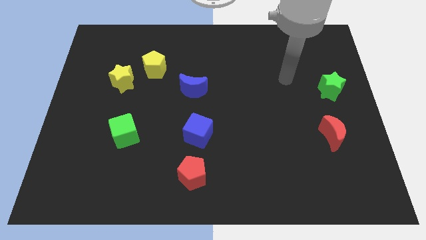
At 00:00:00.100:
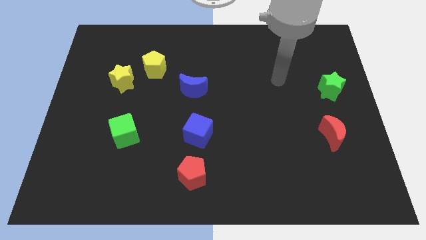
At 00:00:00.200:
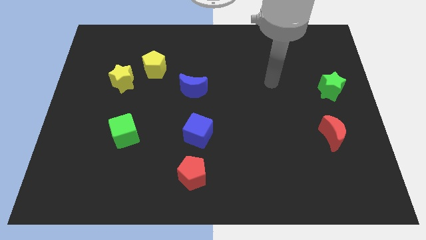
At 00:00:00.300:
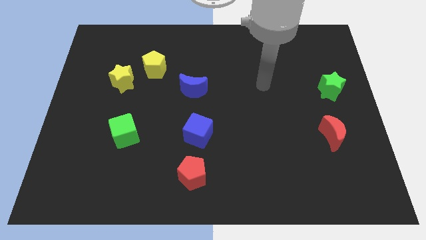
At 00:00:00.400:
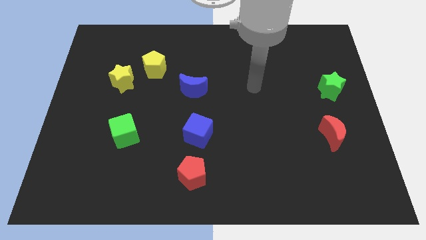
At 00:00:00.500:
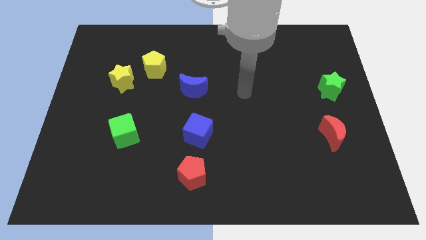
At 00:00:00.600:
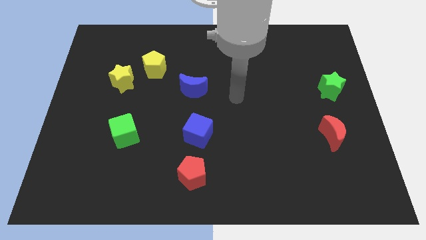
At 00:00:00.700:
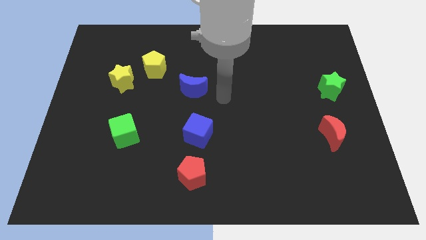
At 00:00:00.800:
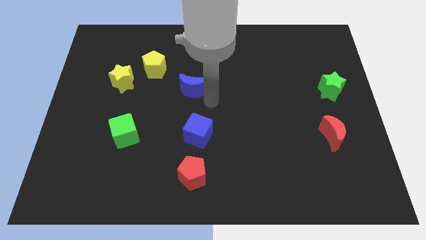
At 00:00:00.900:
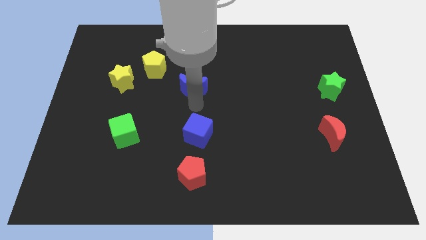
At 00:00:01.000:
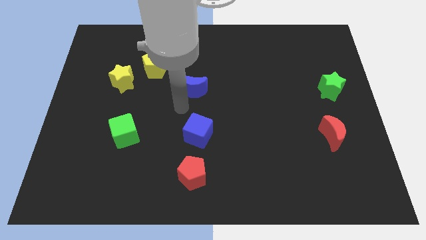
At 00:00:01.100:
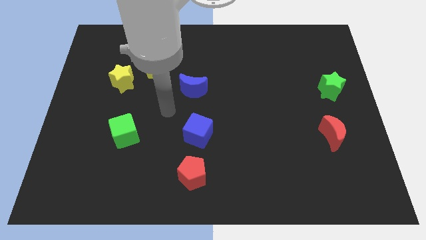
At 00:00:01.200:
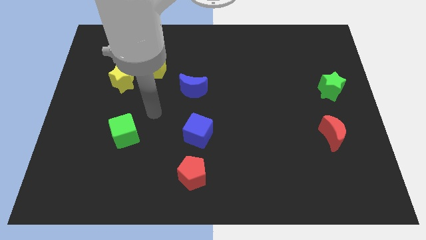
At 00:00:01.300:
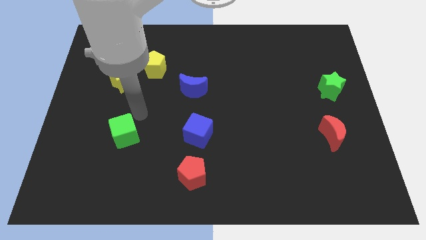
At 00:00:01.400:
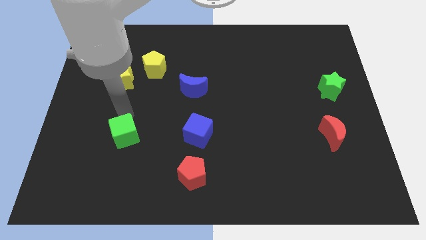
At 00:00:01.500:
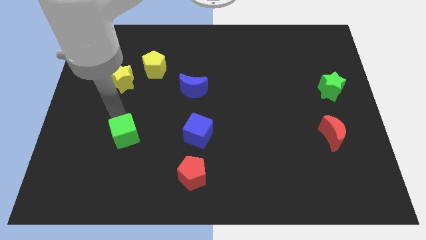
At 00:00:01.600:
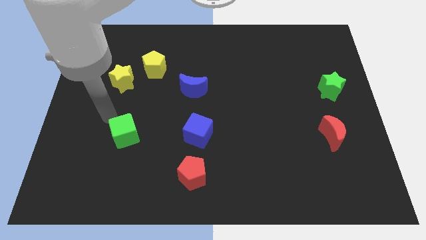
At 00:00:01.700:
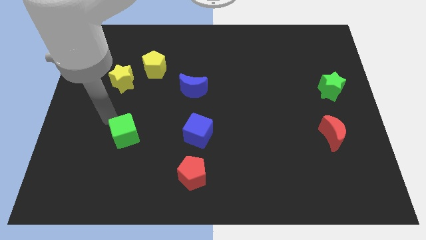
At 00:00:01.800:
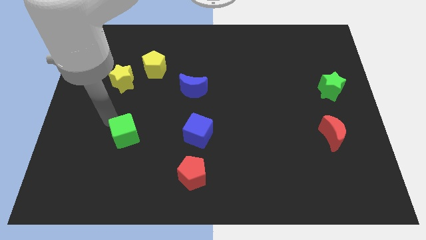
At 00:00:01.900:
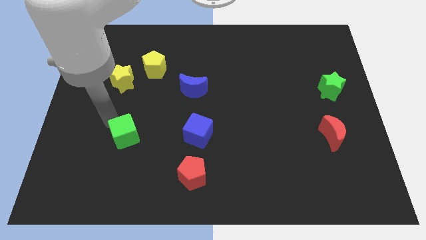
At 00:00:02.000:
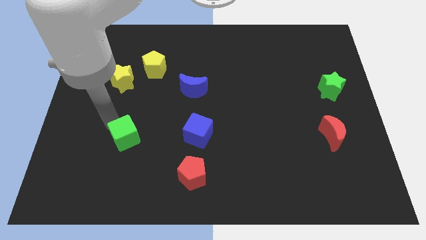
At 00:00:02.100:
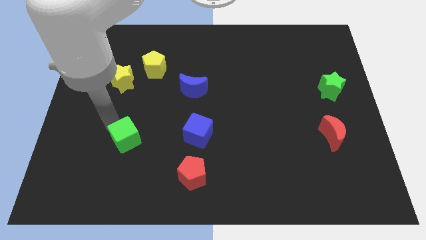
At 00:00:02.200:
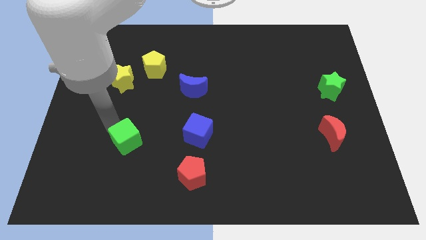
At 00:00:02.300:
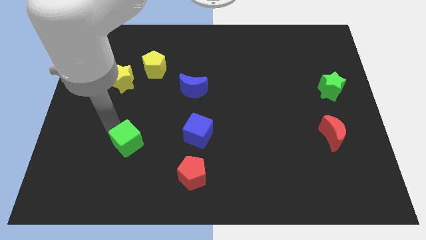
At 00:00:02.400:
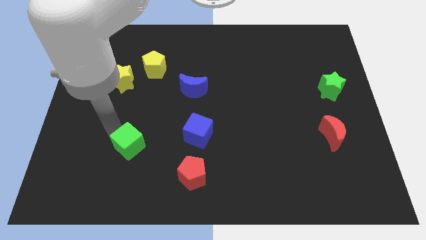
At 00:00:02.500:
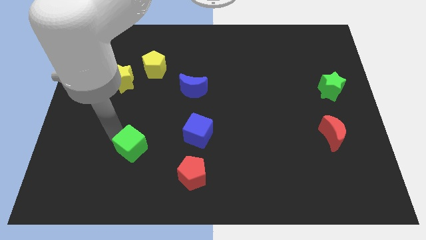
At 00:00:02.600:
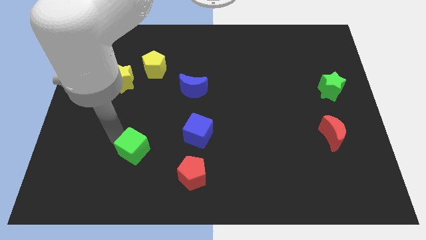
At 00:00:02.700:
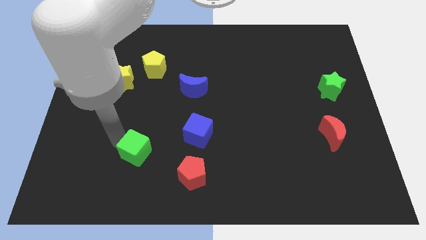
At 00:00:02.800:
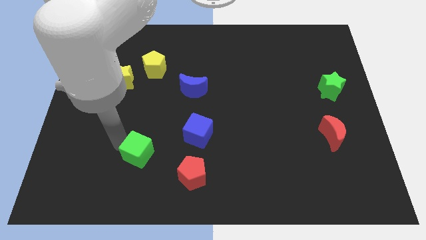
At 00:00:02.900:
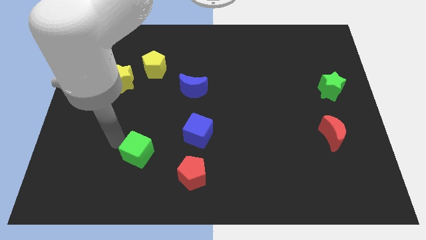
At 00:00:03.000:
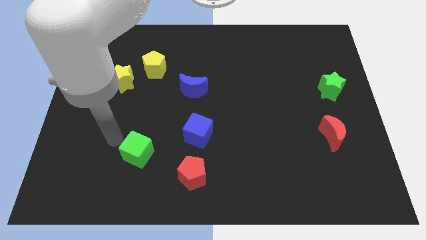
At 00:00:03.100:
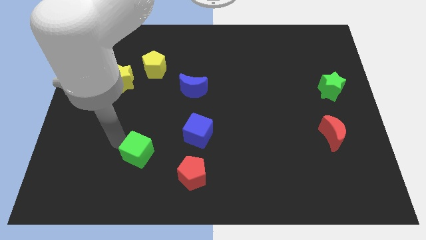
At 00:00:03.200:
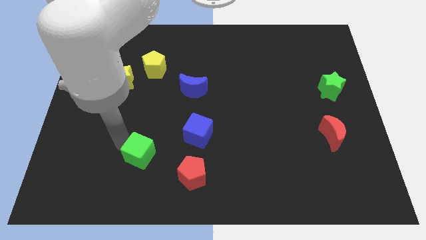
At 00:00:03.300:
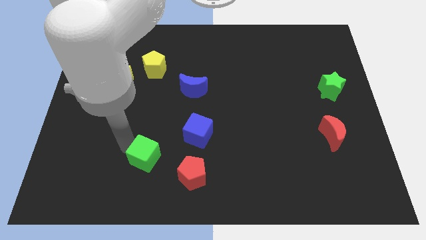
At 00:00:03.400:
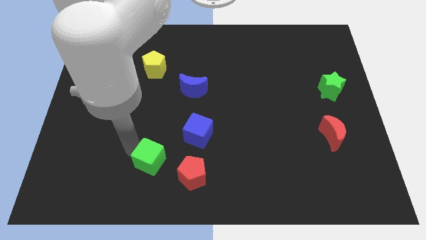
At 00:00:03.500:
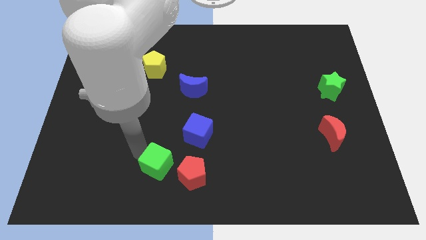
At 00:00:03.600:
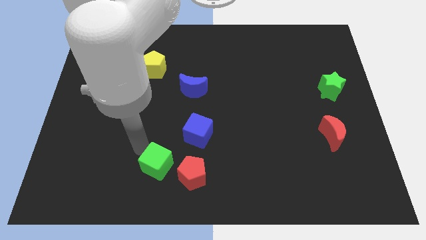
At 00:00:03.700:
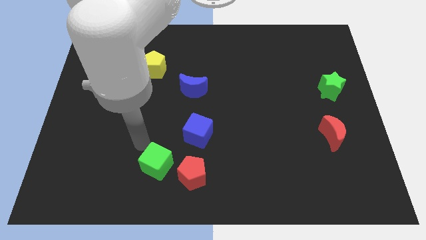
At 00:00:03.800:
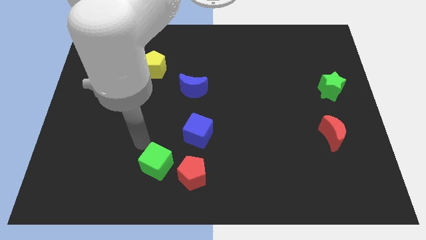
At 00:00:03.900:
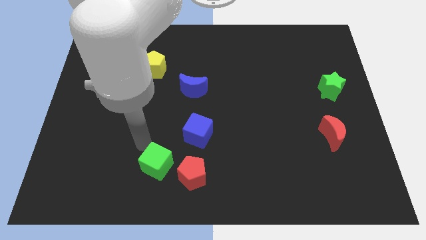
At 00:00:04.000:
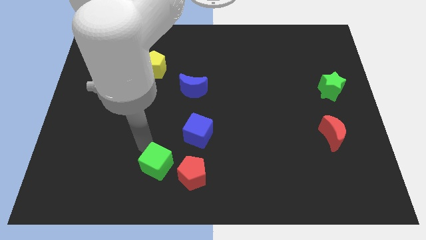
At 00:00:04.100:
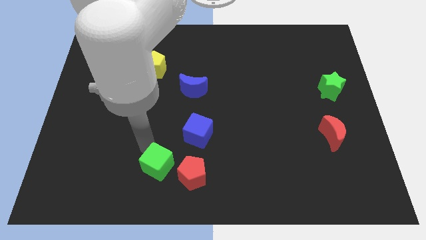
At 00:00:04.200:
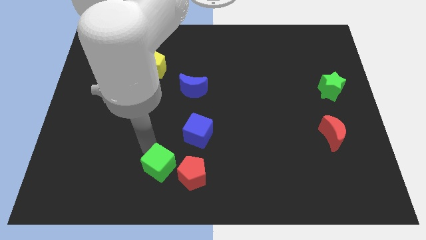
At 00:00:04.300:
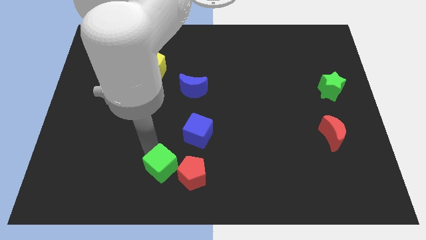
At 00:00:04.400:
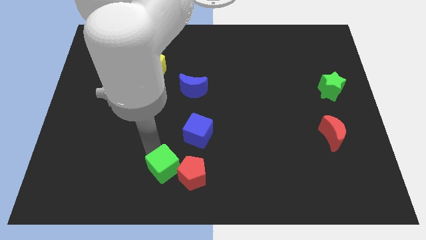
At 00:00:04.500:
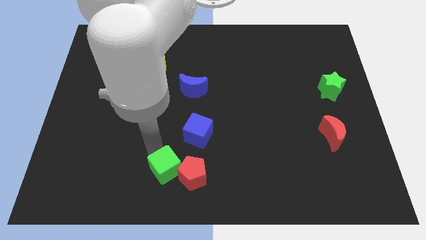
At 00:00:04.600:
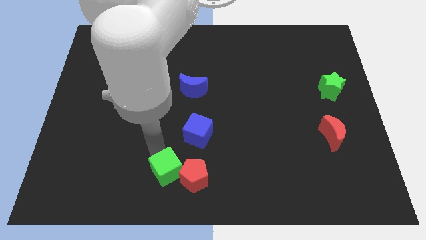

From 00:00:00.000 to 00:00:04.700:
put the green cube to the bottom

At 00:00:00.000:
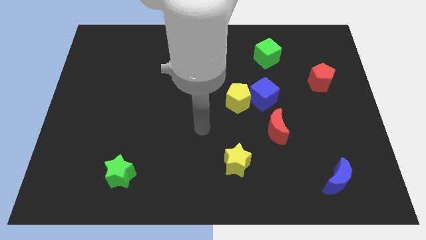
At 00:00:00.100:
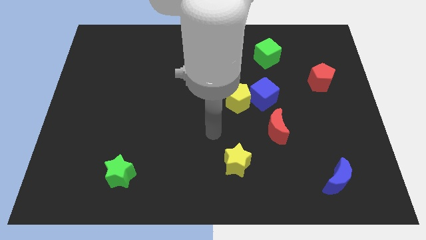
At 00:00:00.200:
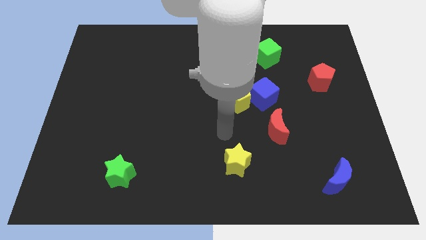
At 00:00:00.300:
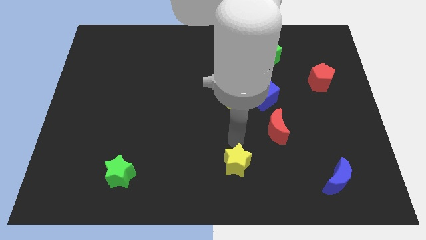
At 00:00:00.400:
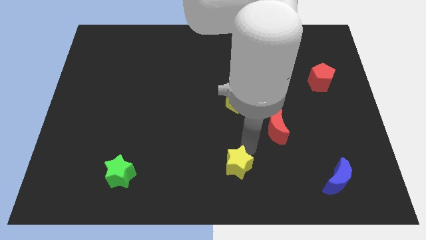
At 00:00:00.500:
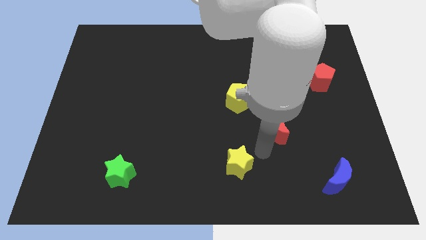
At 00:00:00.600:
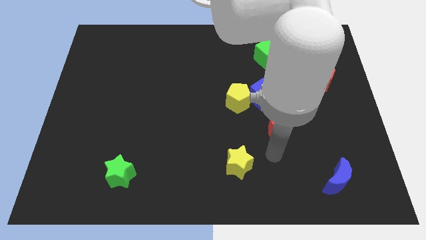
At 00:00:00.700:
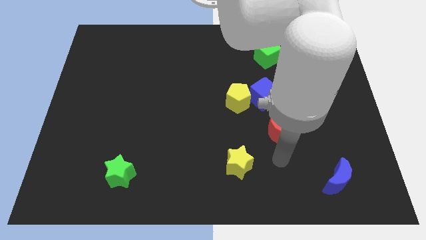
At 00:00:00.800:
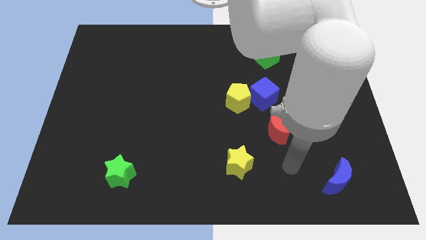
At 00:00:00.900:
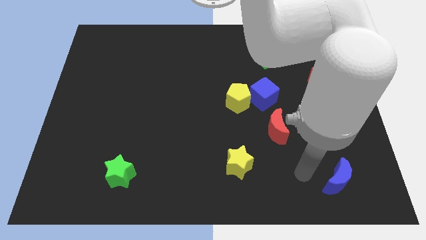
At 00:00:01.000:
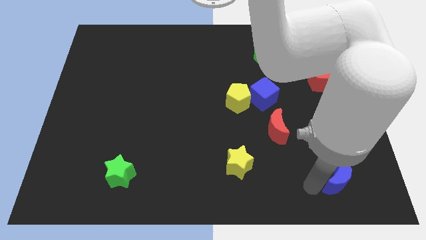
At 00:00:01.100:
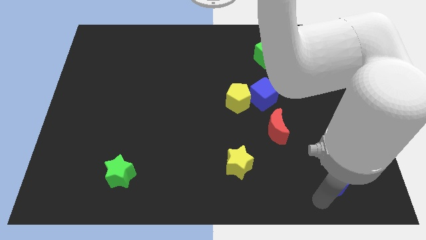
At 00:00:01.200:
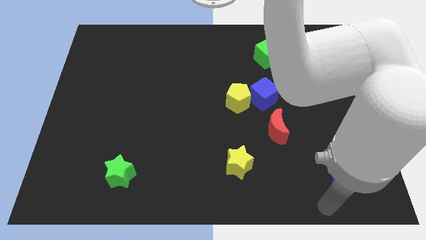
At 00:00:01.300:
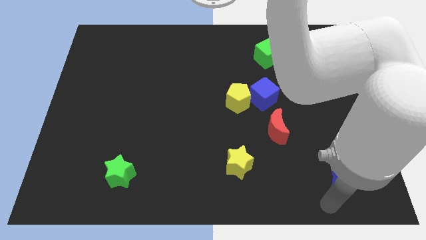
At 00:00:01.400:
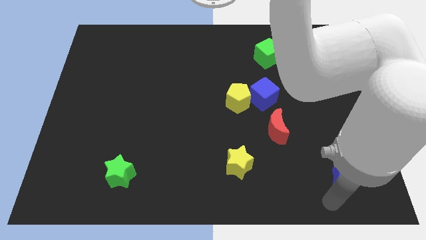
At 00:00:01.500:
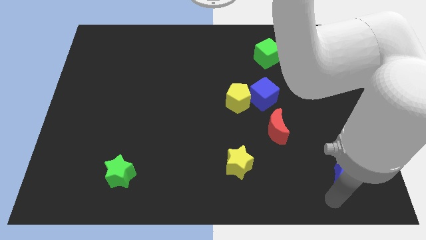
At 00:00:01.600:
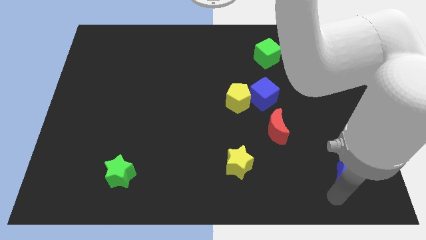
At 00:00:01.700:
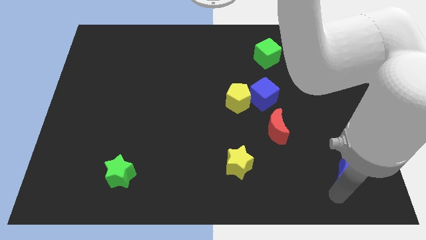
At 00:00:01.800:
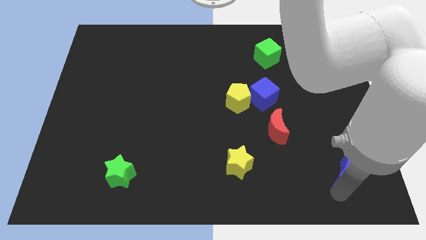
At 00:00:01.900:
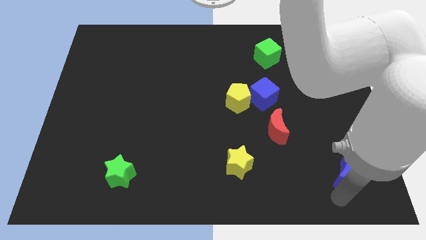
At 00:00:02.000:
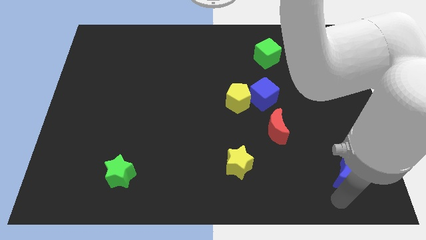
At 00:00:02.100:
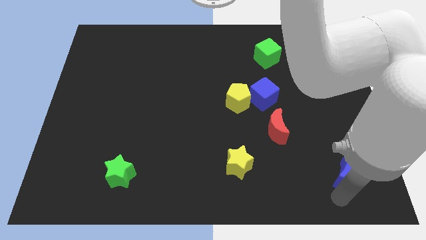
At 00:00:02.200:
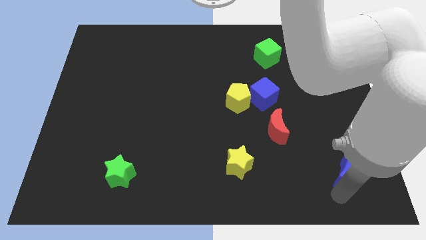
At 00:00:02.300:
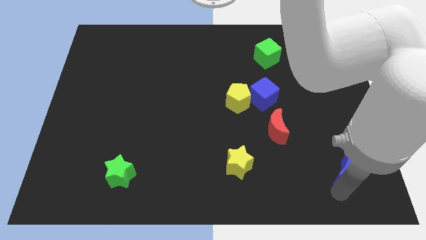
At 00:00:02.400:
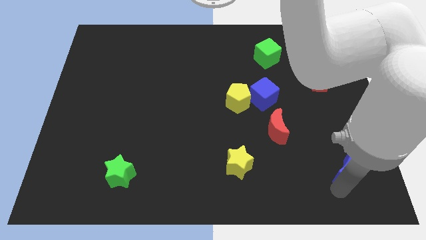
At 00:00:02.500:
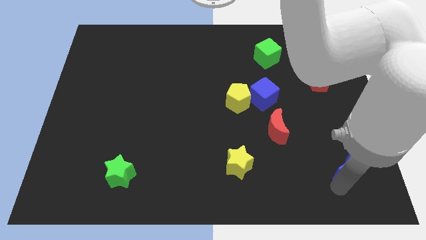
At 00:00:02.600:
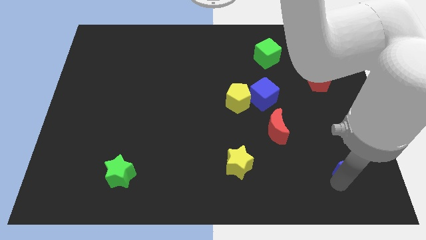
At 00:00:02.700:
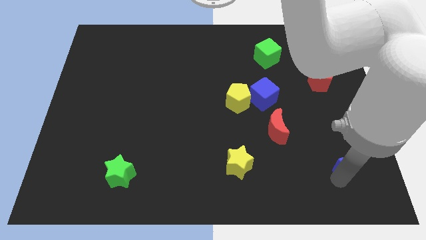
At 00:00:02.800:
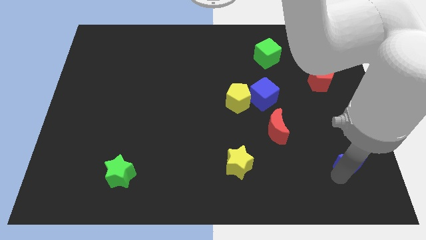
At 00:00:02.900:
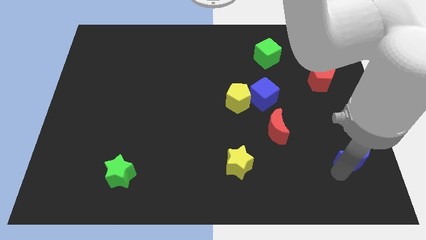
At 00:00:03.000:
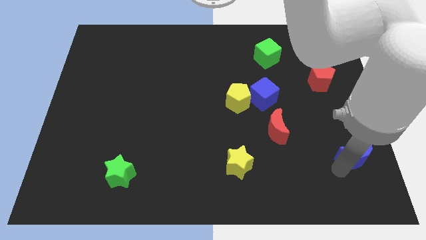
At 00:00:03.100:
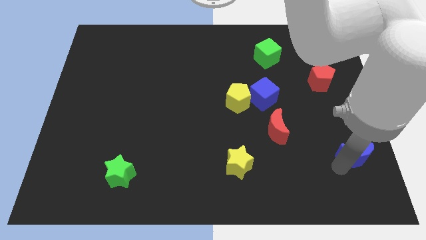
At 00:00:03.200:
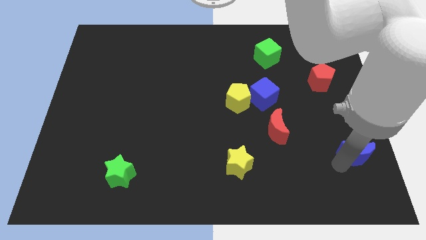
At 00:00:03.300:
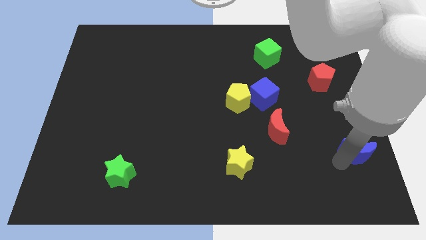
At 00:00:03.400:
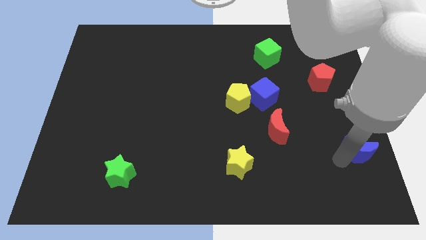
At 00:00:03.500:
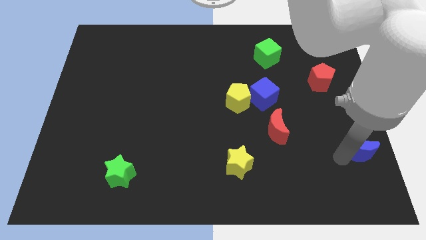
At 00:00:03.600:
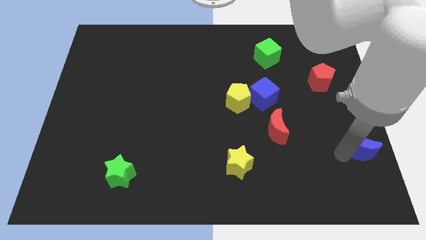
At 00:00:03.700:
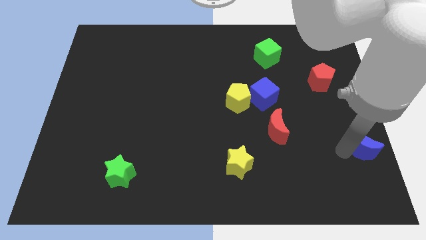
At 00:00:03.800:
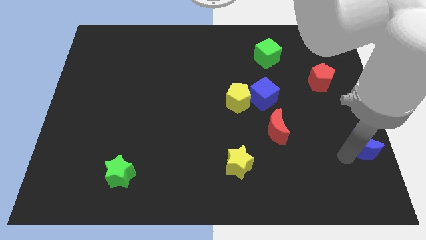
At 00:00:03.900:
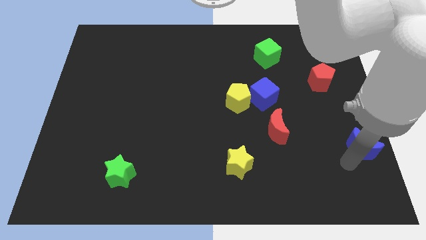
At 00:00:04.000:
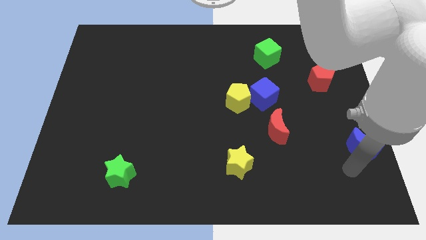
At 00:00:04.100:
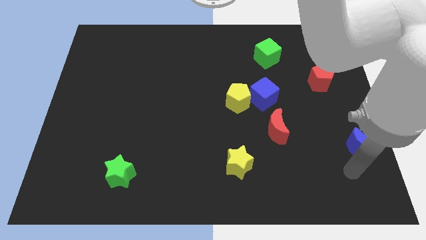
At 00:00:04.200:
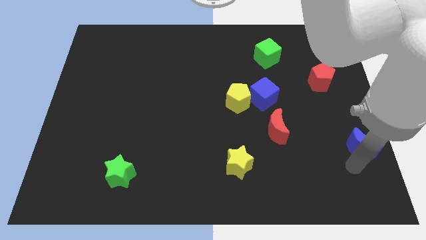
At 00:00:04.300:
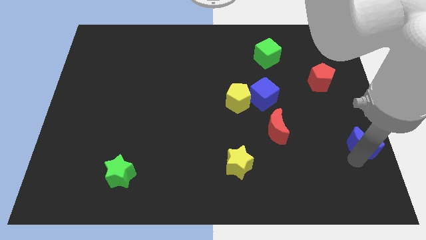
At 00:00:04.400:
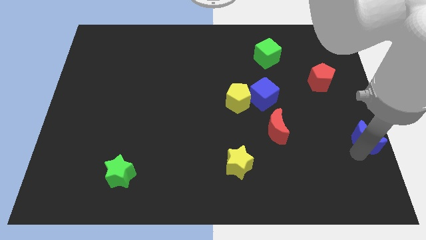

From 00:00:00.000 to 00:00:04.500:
move the blue moon to the center right
